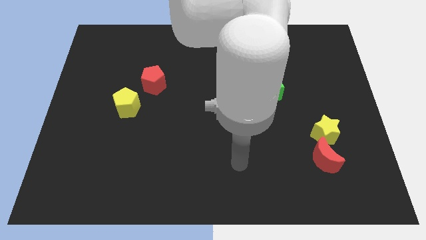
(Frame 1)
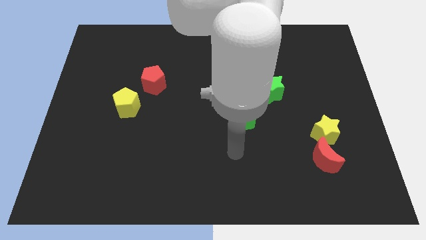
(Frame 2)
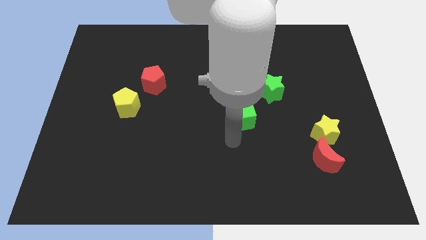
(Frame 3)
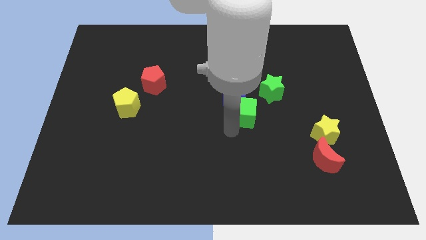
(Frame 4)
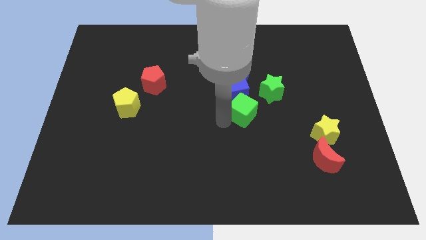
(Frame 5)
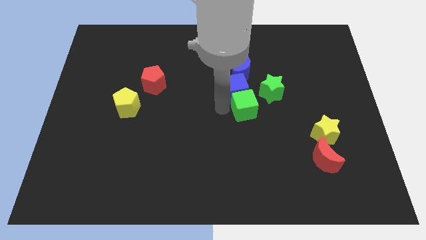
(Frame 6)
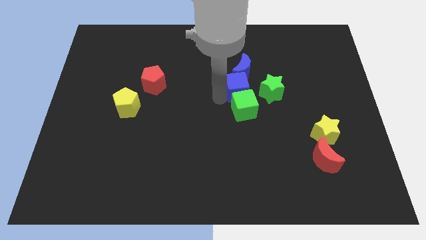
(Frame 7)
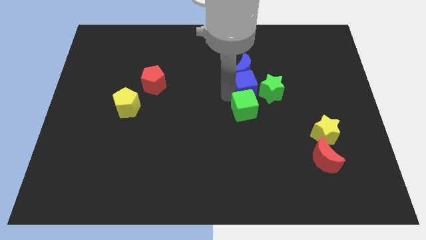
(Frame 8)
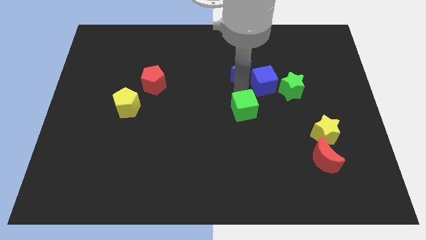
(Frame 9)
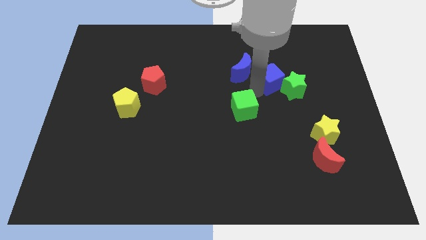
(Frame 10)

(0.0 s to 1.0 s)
pull the green cube apart from the blue cube

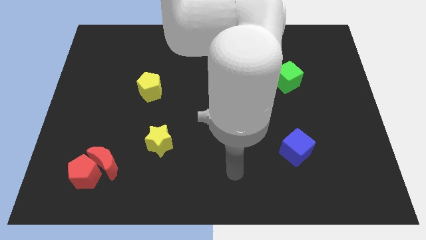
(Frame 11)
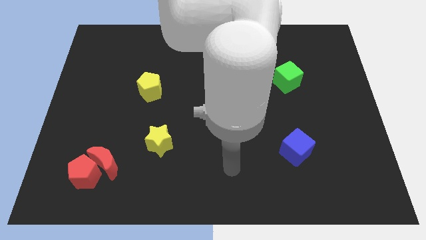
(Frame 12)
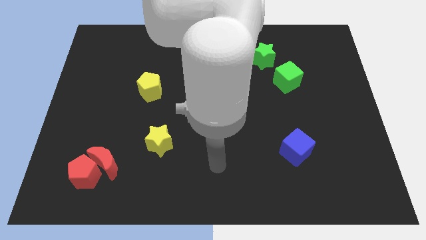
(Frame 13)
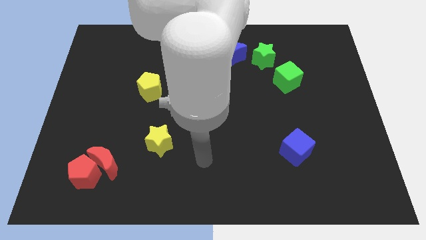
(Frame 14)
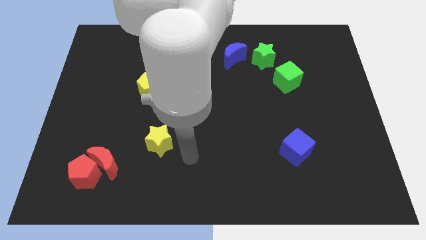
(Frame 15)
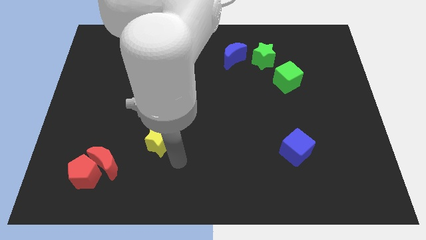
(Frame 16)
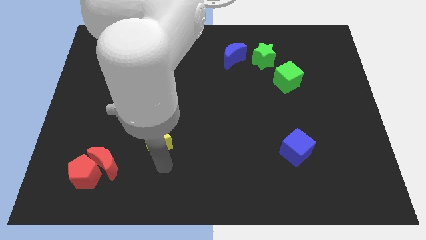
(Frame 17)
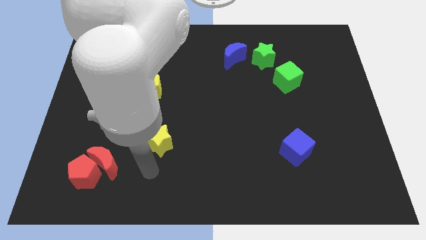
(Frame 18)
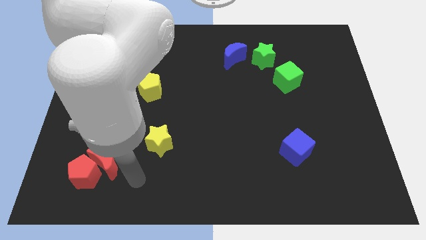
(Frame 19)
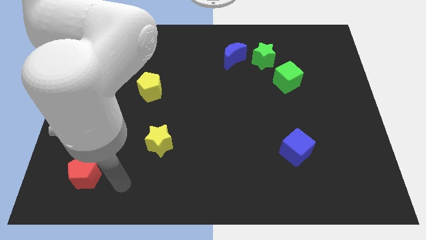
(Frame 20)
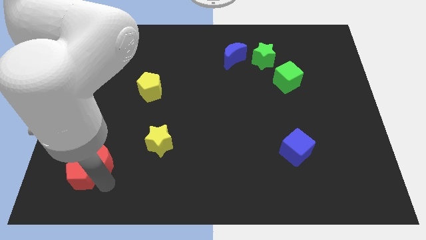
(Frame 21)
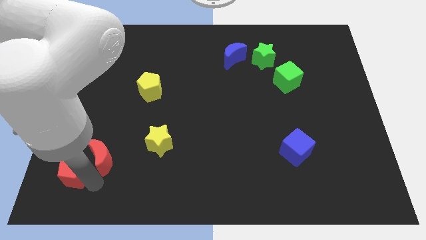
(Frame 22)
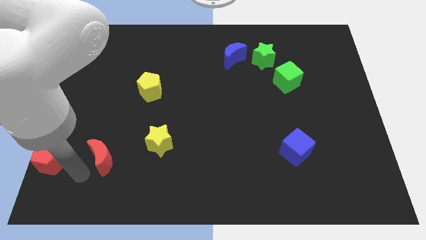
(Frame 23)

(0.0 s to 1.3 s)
separate the red moon from the red pentagon

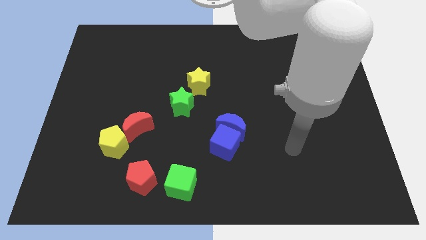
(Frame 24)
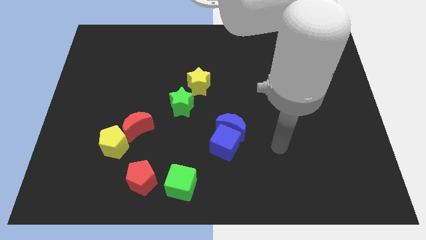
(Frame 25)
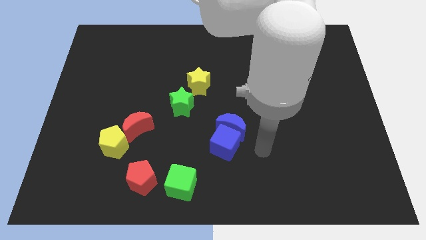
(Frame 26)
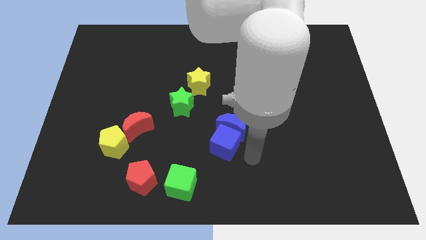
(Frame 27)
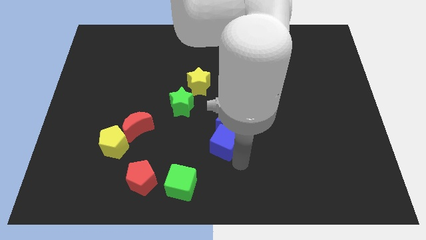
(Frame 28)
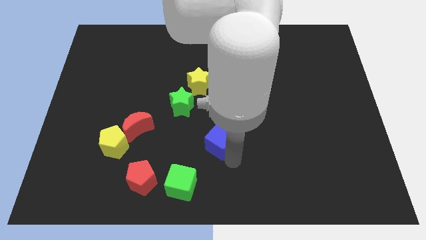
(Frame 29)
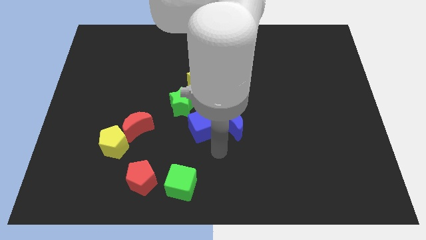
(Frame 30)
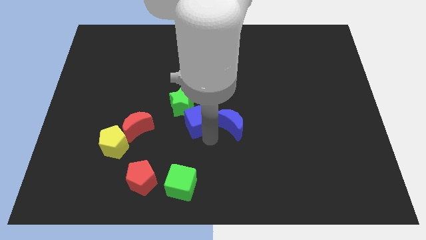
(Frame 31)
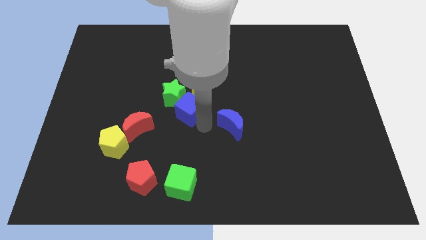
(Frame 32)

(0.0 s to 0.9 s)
pull the blue moon apart from the blue cube

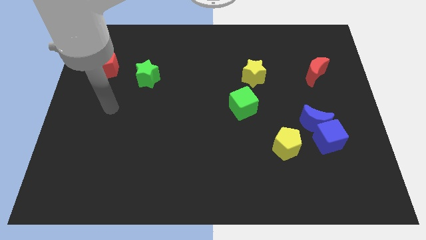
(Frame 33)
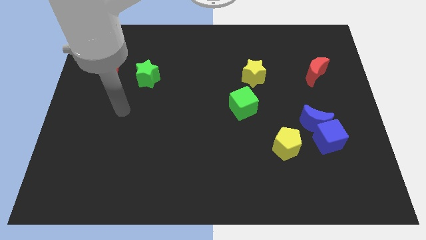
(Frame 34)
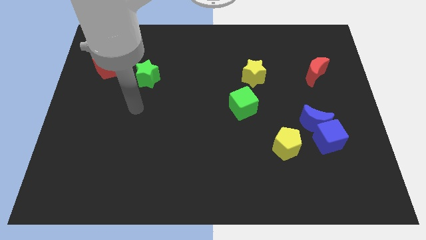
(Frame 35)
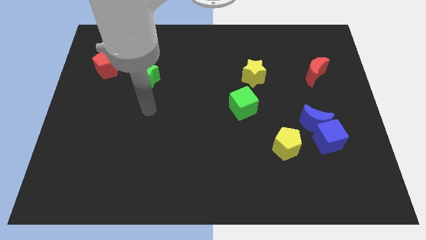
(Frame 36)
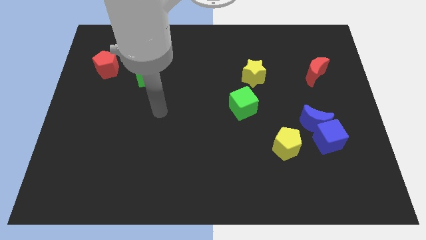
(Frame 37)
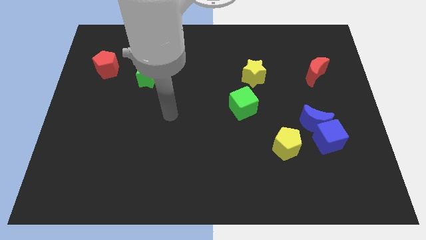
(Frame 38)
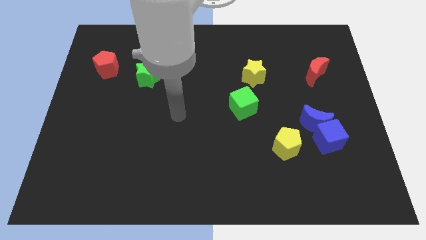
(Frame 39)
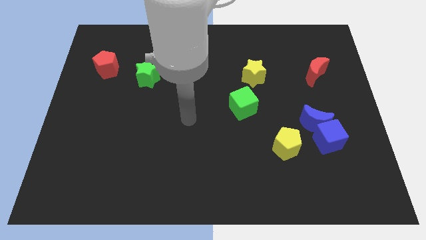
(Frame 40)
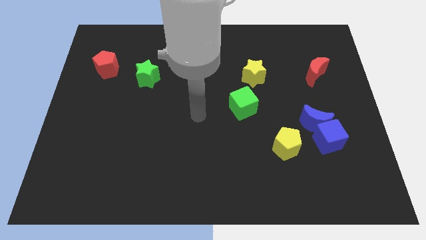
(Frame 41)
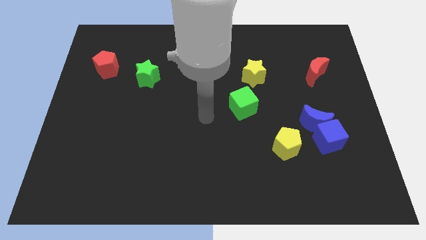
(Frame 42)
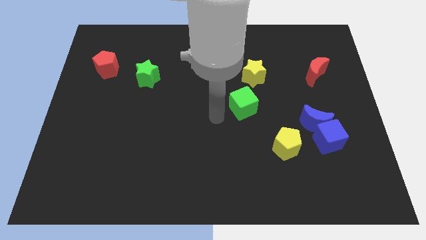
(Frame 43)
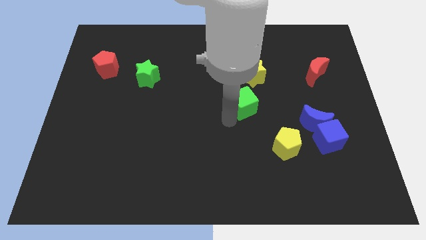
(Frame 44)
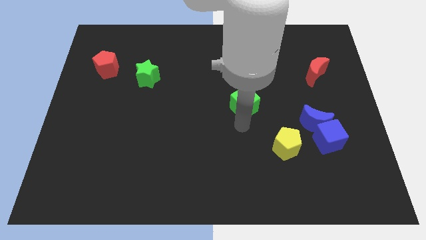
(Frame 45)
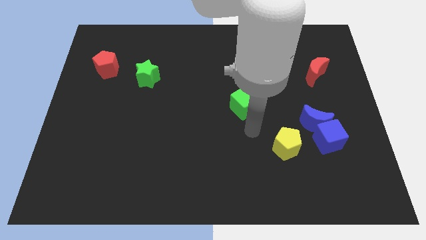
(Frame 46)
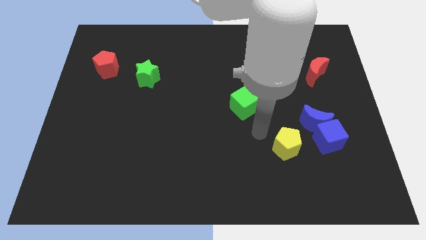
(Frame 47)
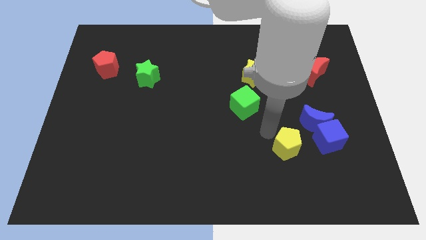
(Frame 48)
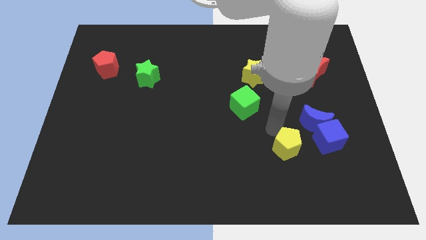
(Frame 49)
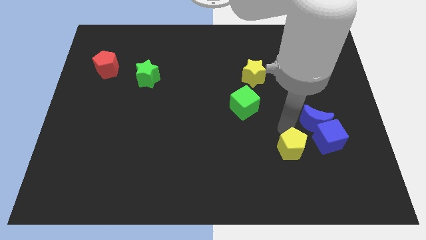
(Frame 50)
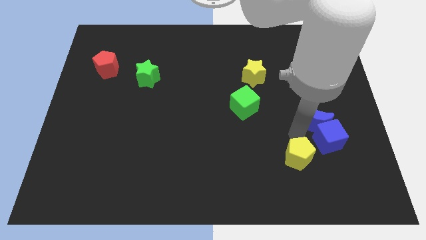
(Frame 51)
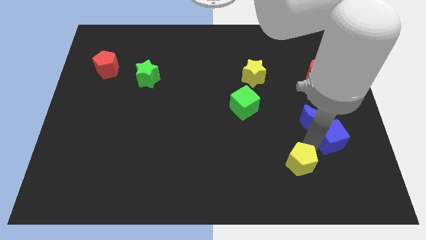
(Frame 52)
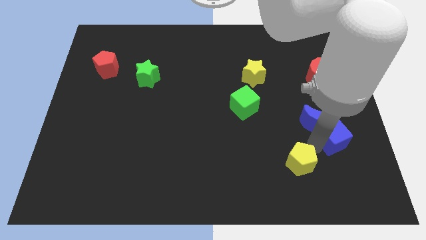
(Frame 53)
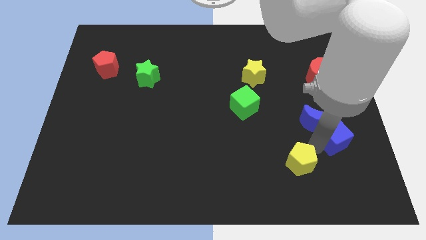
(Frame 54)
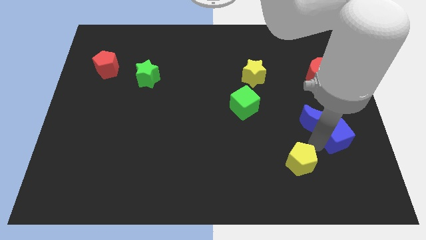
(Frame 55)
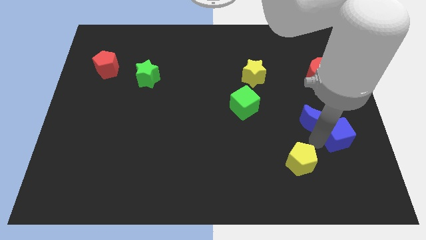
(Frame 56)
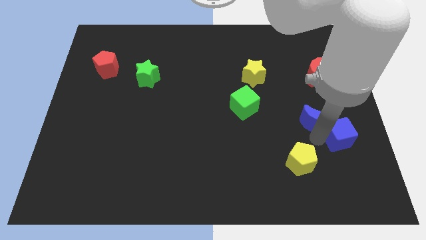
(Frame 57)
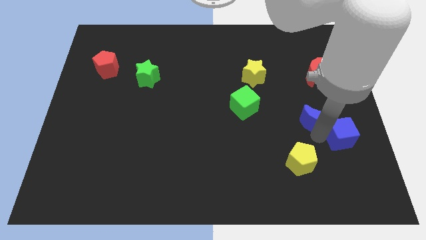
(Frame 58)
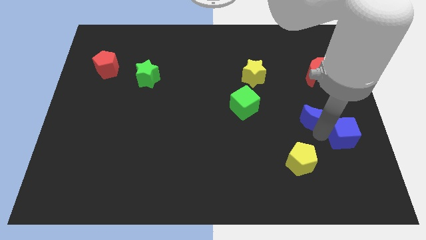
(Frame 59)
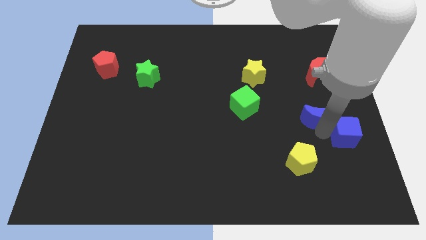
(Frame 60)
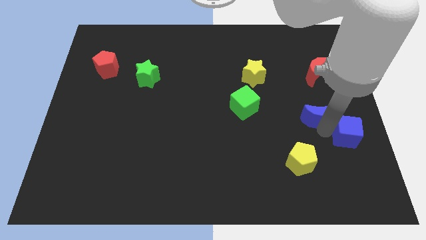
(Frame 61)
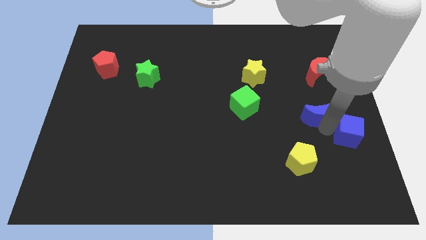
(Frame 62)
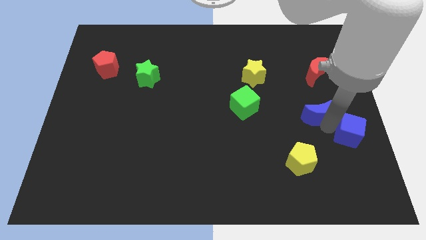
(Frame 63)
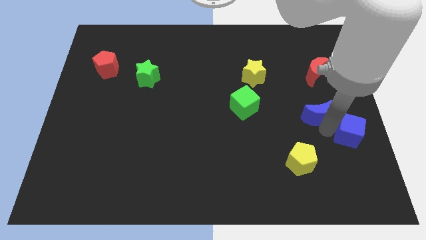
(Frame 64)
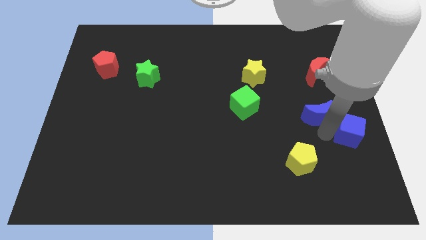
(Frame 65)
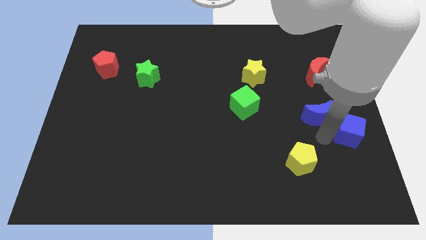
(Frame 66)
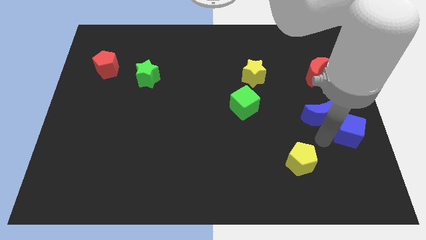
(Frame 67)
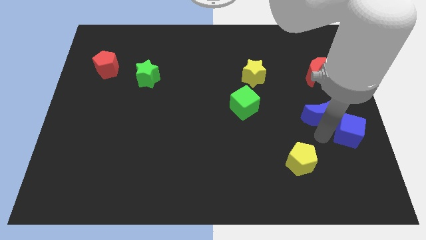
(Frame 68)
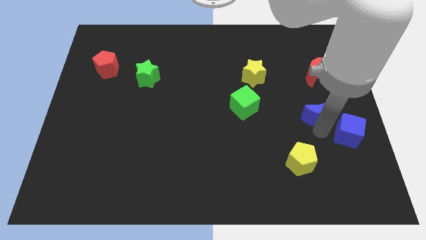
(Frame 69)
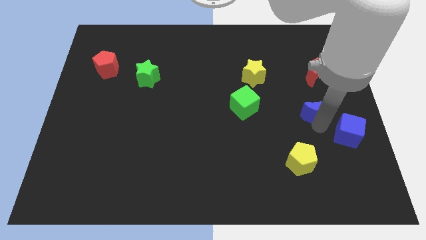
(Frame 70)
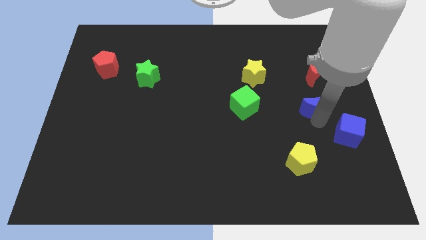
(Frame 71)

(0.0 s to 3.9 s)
move the blue moon away from the blue cube and yellow pentagon

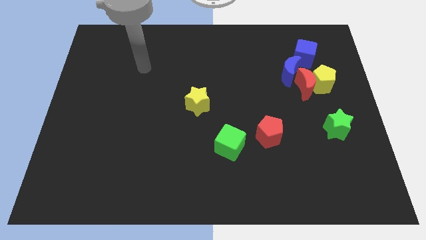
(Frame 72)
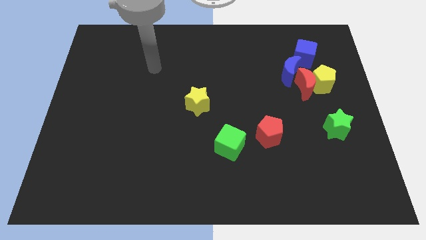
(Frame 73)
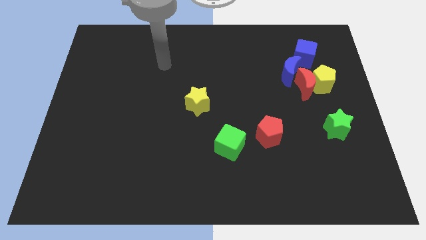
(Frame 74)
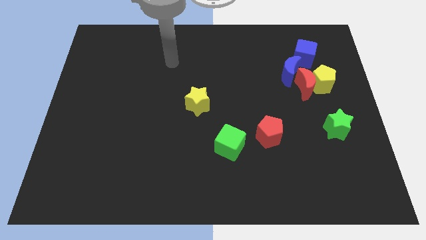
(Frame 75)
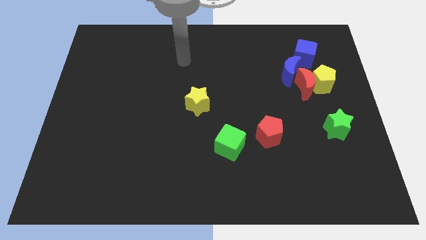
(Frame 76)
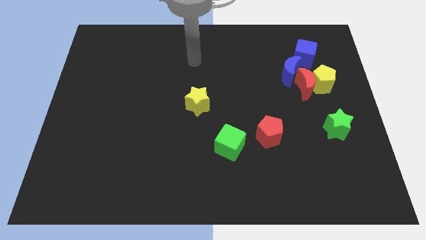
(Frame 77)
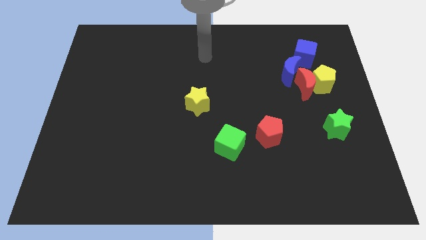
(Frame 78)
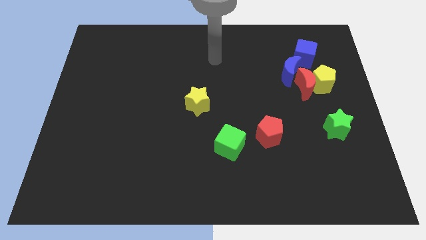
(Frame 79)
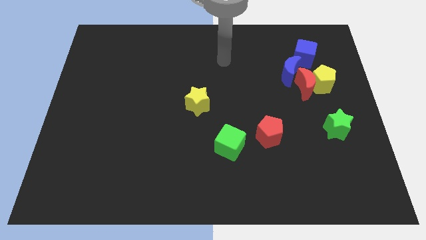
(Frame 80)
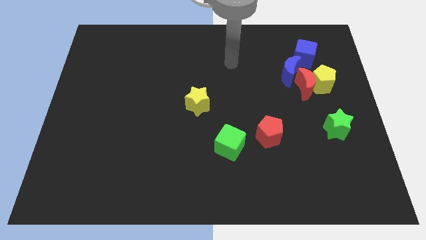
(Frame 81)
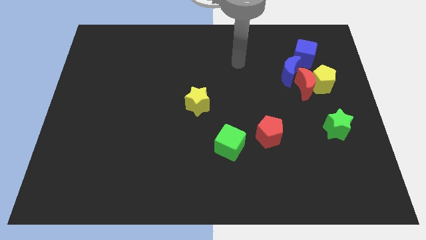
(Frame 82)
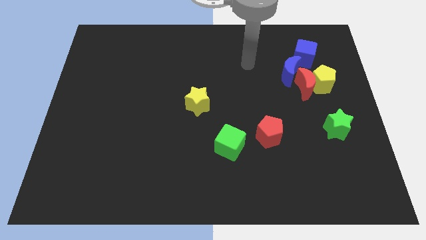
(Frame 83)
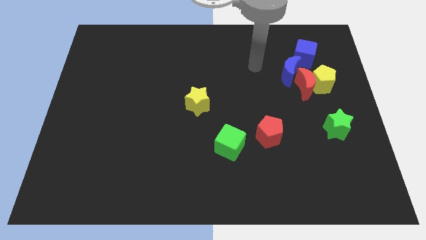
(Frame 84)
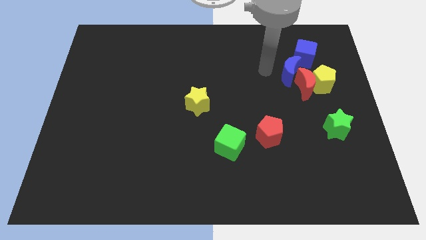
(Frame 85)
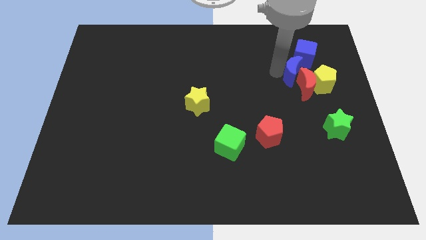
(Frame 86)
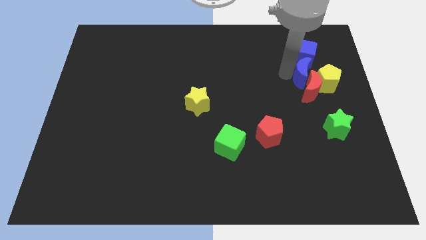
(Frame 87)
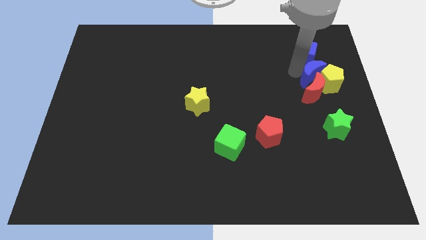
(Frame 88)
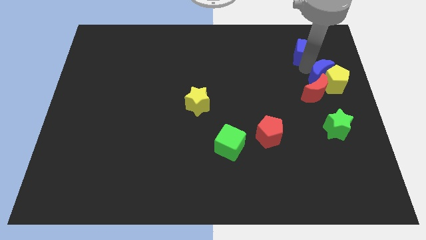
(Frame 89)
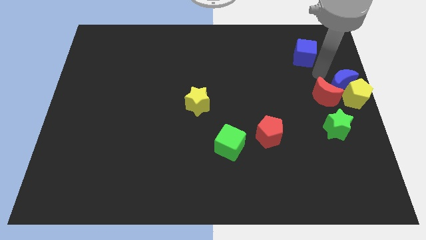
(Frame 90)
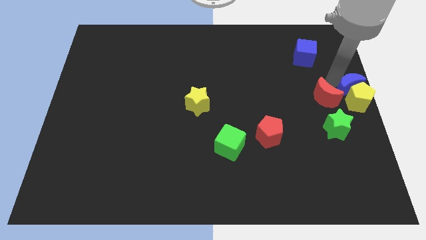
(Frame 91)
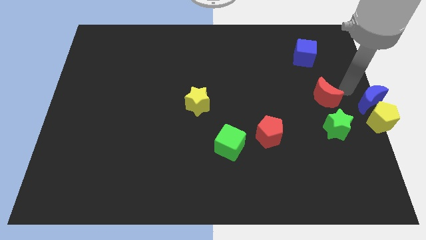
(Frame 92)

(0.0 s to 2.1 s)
separate the red moon from the yellow pentagon and blue moon

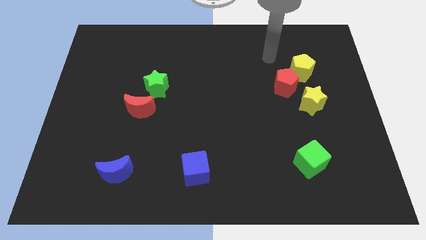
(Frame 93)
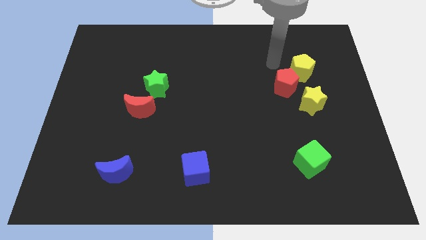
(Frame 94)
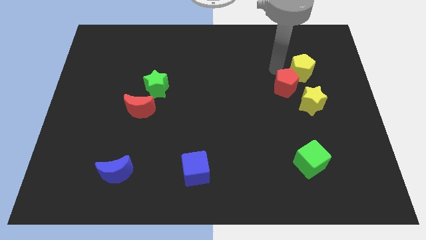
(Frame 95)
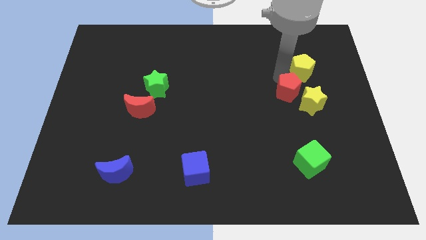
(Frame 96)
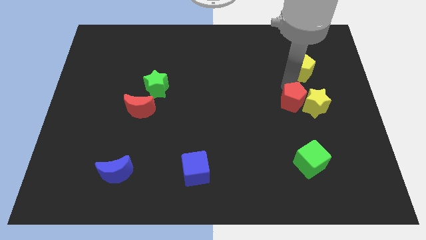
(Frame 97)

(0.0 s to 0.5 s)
pull the yellow pentagon apart from the red pentagon
